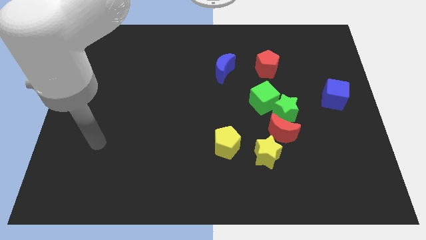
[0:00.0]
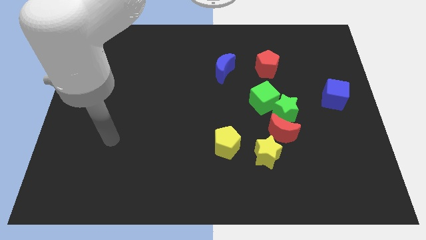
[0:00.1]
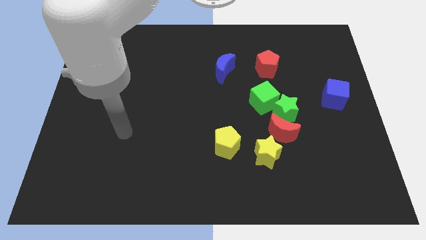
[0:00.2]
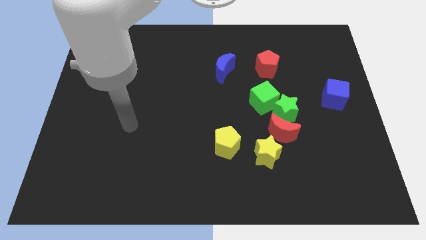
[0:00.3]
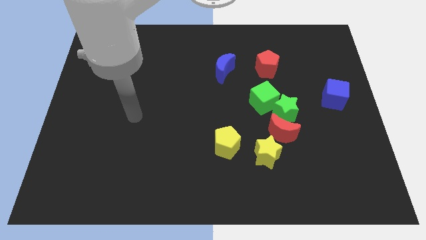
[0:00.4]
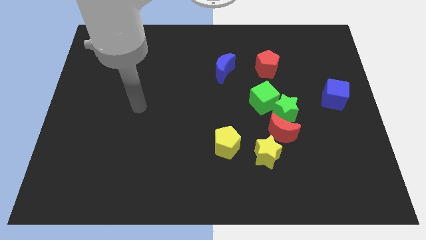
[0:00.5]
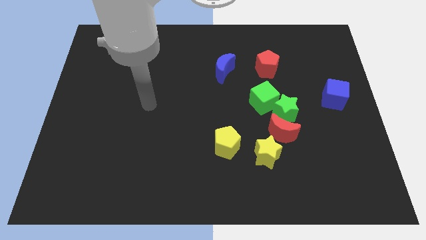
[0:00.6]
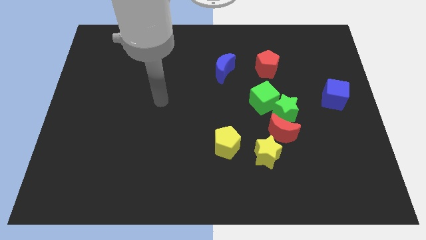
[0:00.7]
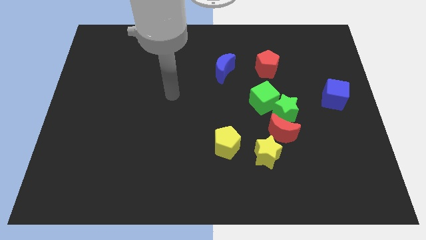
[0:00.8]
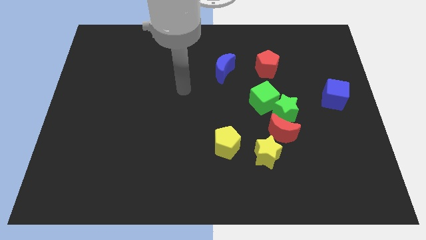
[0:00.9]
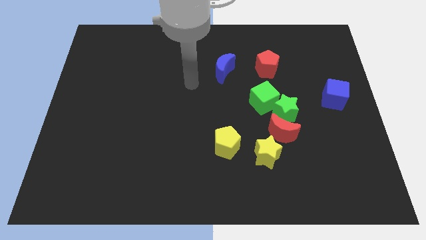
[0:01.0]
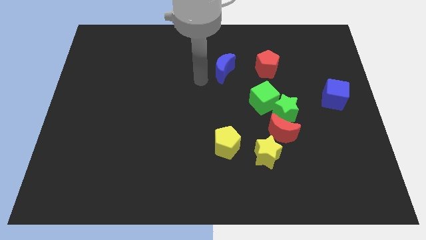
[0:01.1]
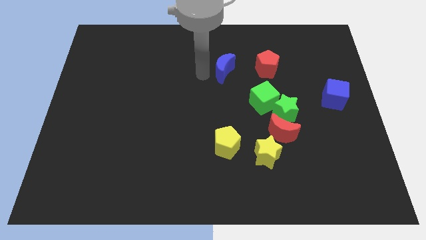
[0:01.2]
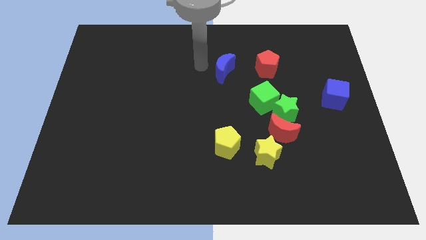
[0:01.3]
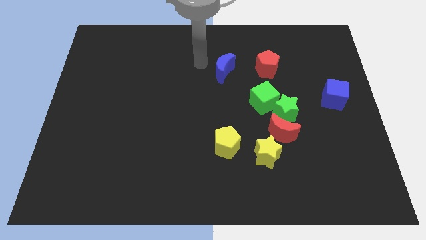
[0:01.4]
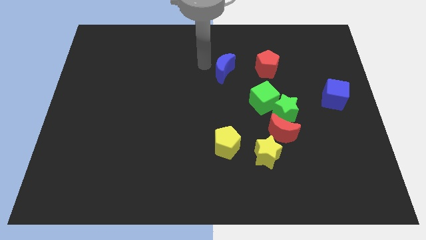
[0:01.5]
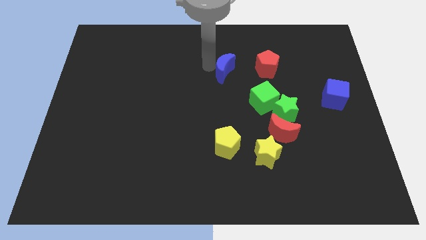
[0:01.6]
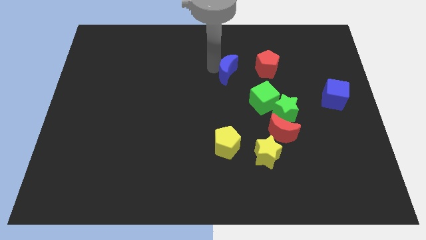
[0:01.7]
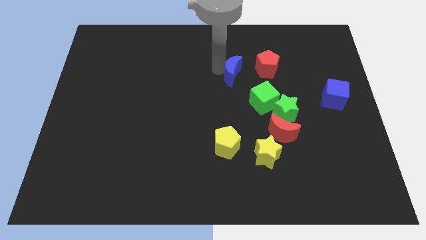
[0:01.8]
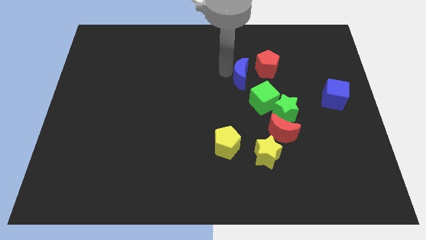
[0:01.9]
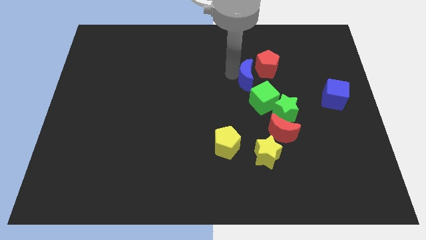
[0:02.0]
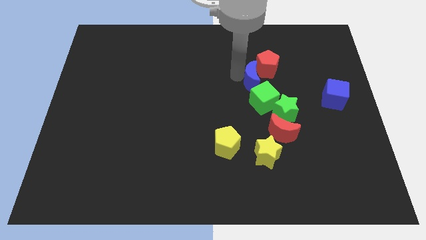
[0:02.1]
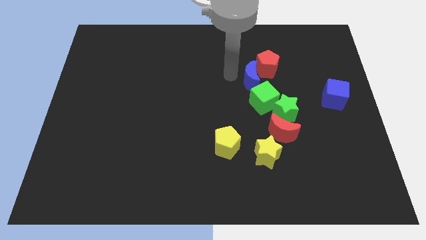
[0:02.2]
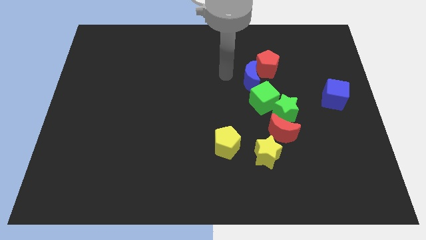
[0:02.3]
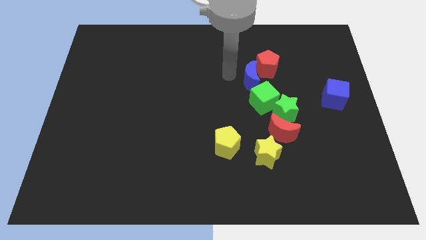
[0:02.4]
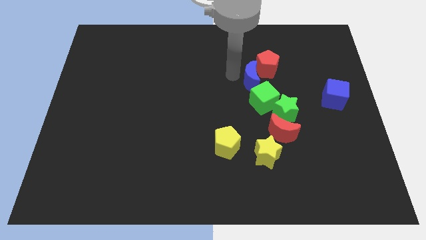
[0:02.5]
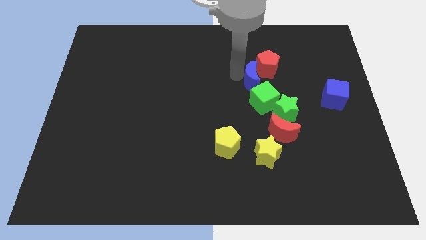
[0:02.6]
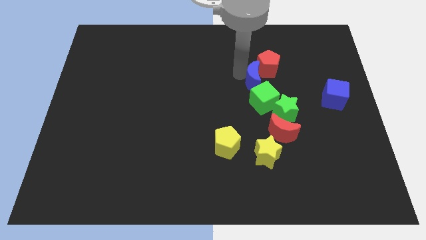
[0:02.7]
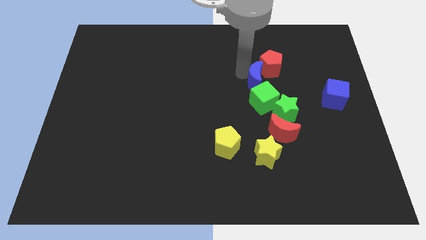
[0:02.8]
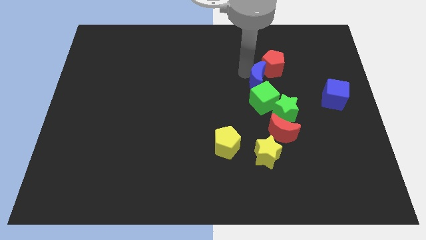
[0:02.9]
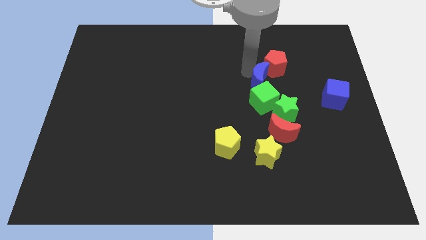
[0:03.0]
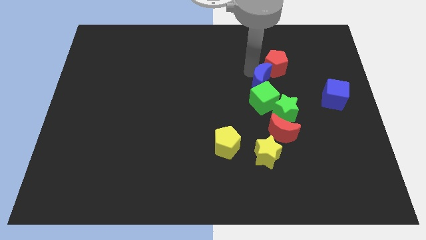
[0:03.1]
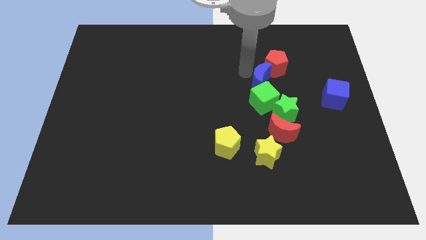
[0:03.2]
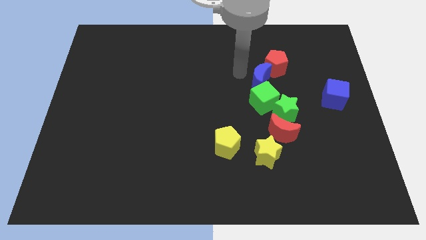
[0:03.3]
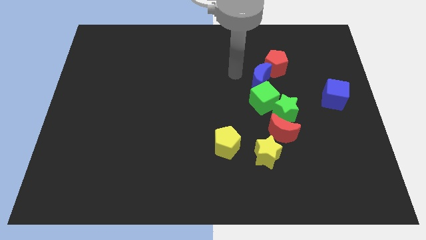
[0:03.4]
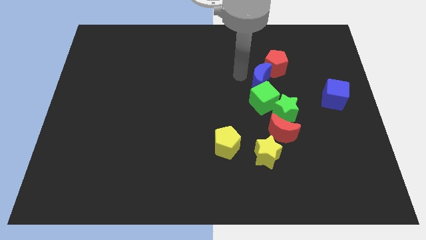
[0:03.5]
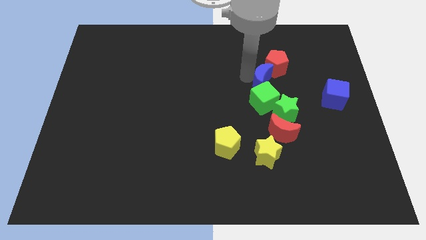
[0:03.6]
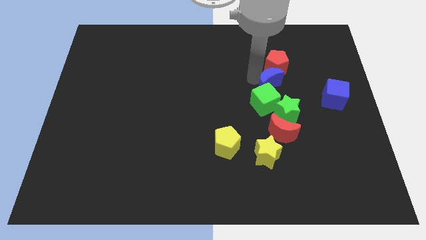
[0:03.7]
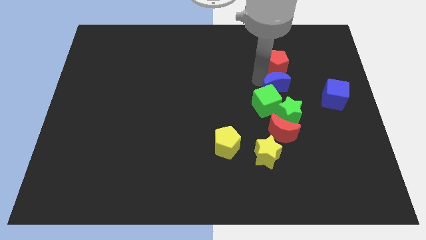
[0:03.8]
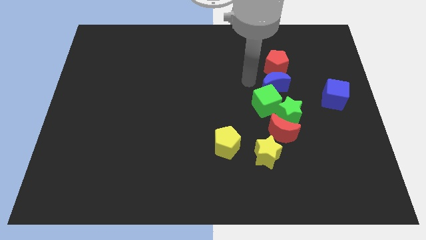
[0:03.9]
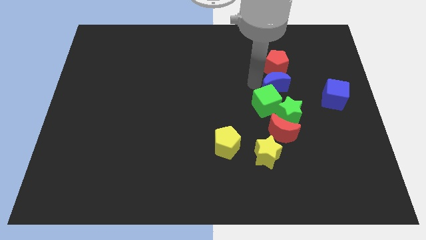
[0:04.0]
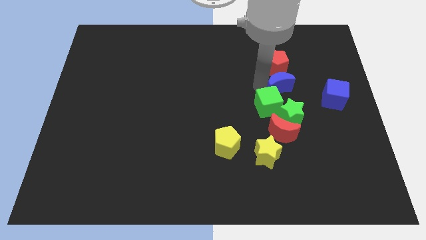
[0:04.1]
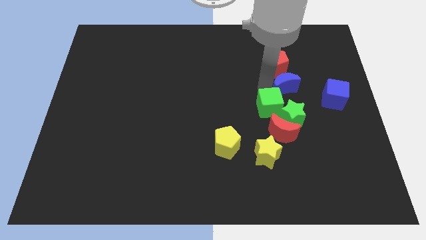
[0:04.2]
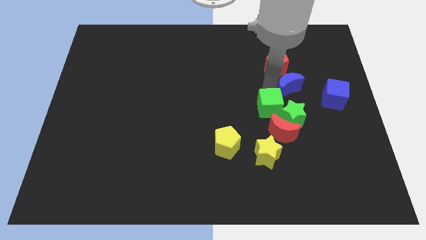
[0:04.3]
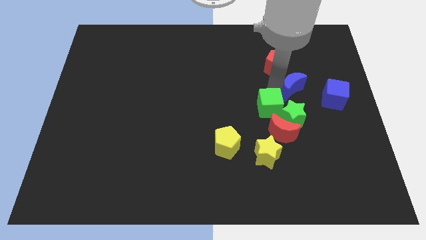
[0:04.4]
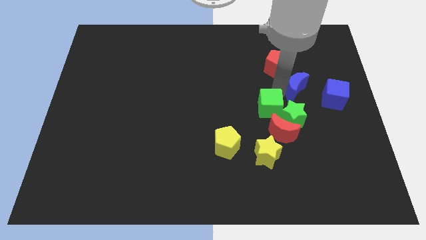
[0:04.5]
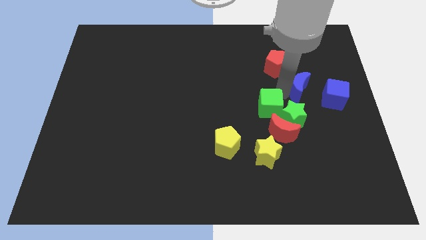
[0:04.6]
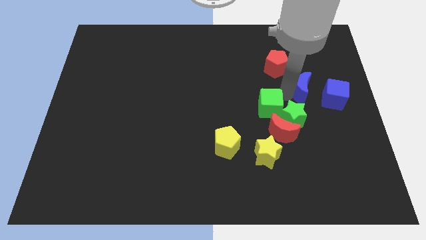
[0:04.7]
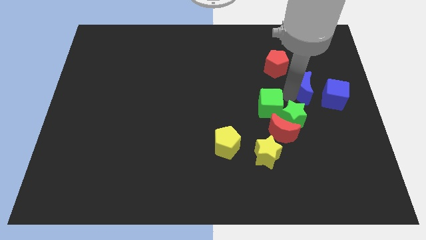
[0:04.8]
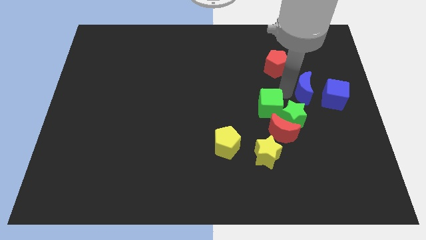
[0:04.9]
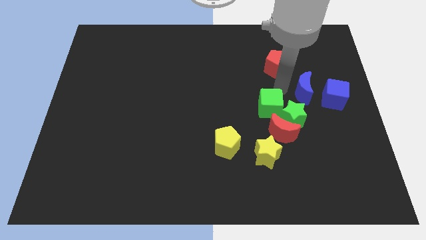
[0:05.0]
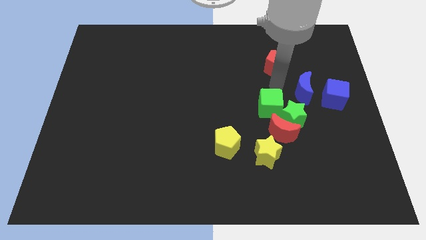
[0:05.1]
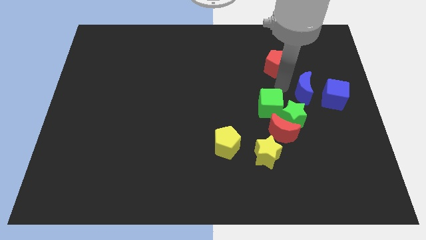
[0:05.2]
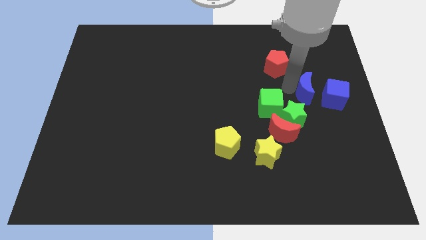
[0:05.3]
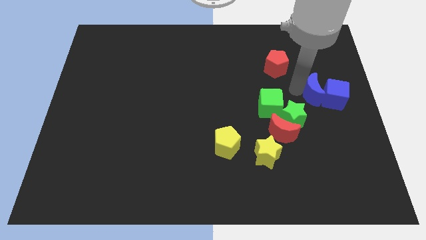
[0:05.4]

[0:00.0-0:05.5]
push the blue moon to the blue cube

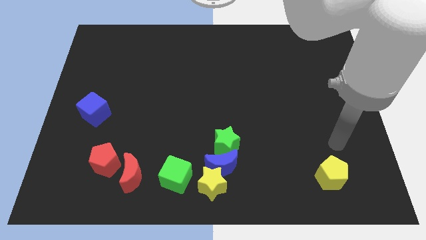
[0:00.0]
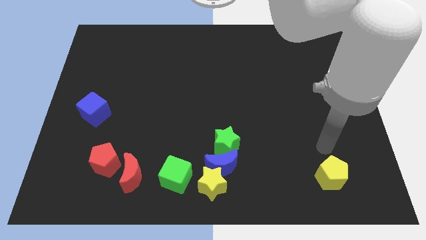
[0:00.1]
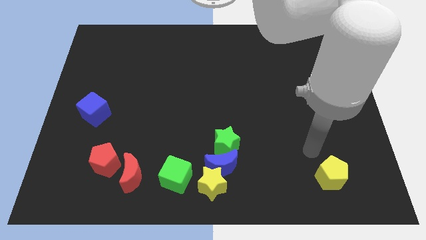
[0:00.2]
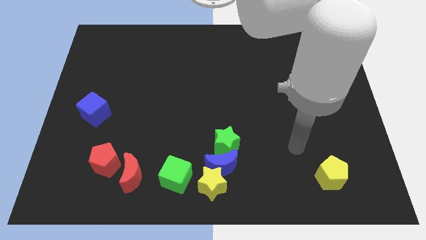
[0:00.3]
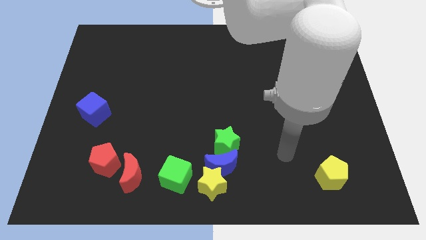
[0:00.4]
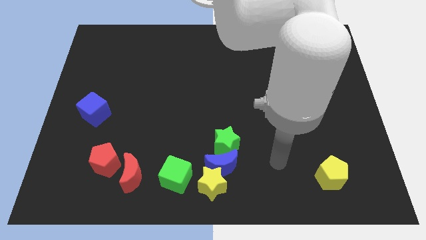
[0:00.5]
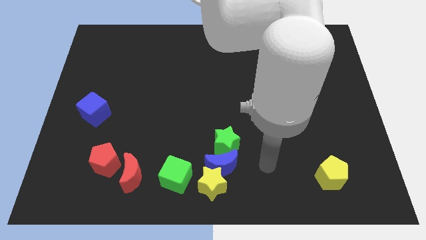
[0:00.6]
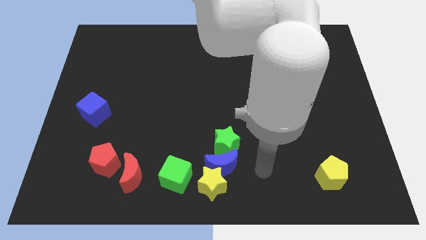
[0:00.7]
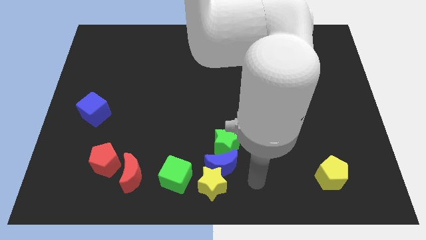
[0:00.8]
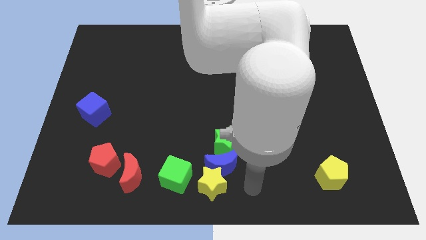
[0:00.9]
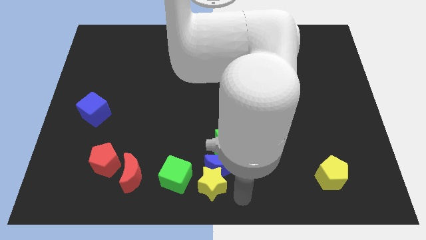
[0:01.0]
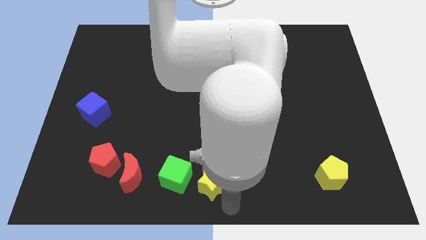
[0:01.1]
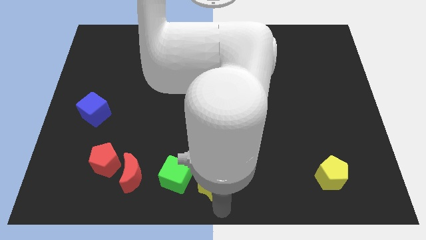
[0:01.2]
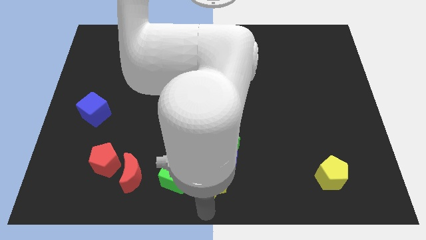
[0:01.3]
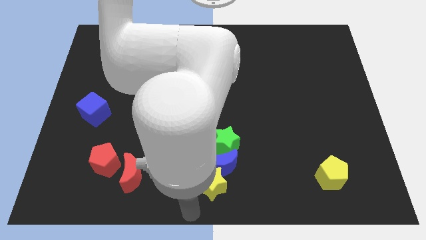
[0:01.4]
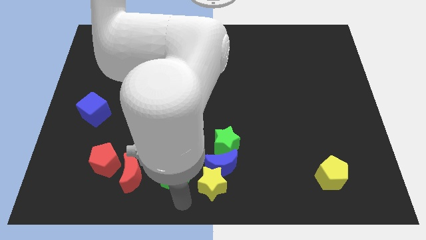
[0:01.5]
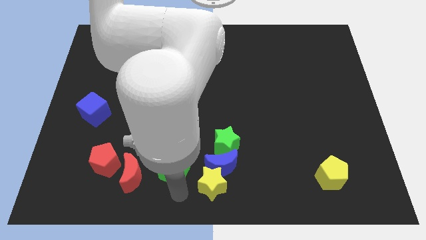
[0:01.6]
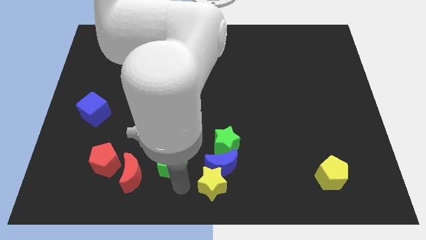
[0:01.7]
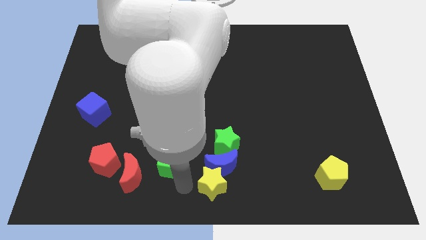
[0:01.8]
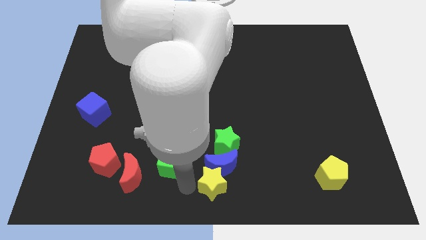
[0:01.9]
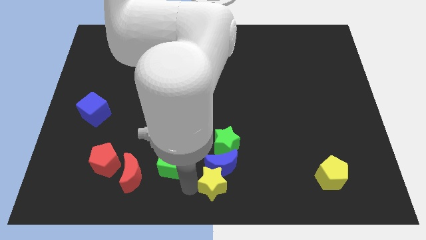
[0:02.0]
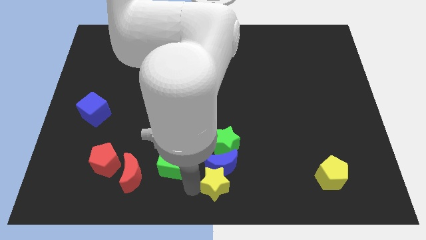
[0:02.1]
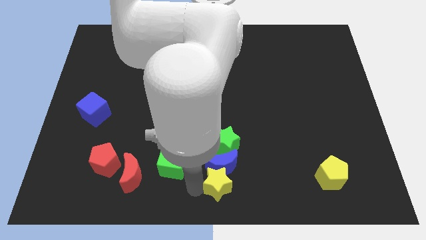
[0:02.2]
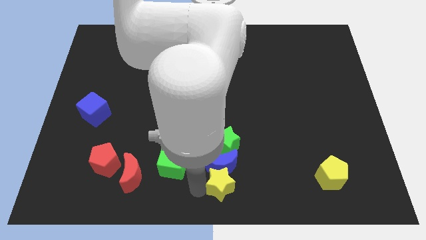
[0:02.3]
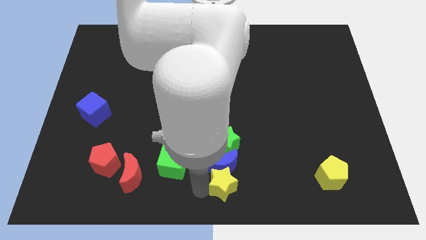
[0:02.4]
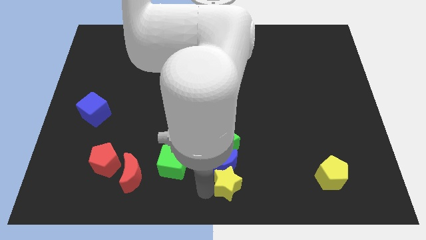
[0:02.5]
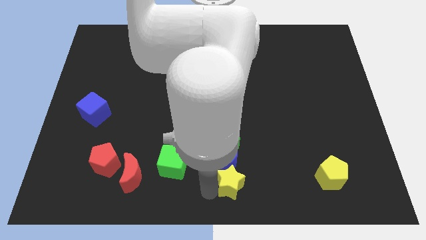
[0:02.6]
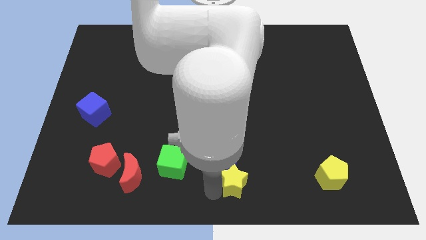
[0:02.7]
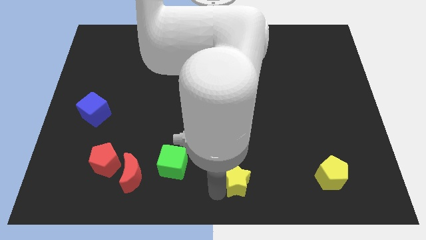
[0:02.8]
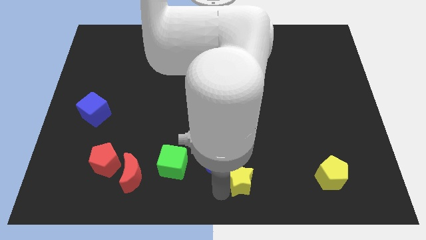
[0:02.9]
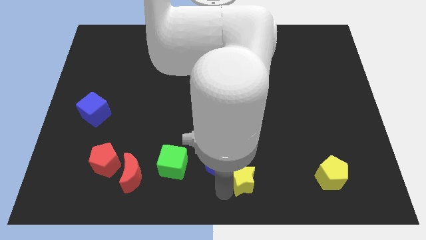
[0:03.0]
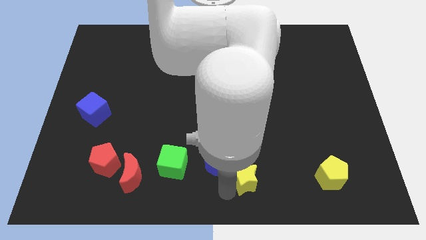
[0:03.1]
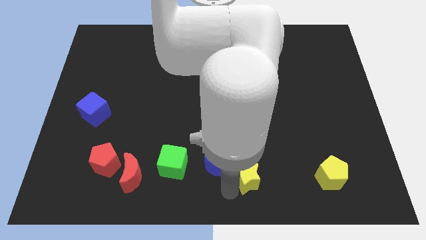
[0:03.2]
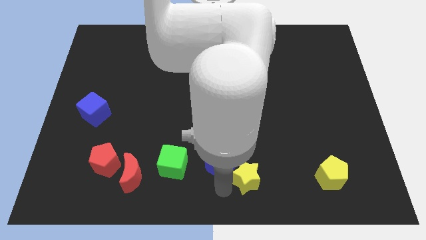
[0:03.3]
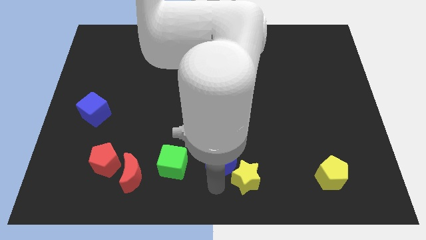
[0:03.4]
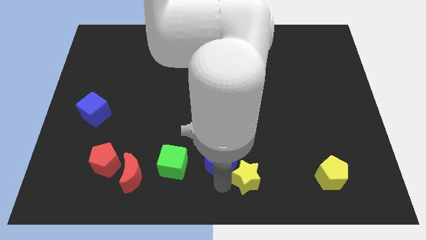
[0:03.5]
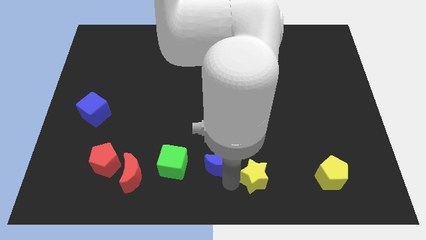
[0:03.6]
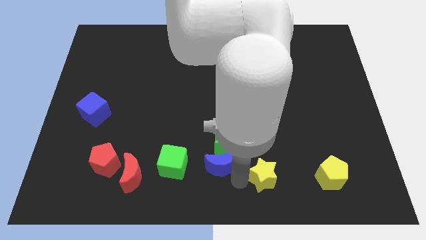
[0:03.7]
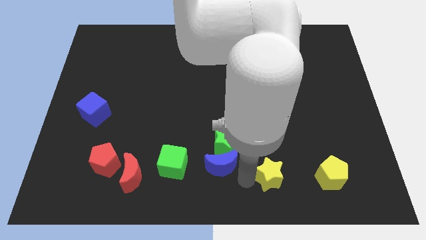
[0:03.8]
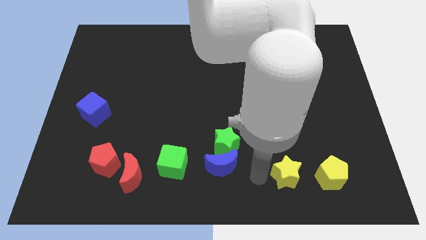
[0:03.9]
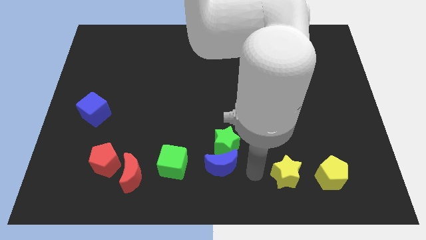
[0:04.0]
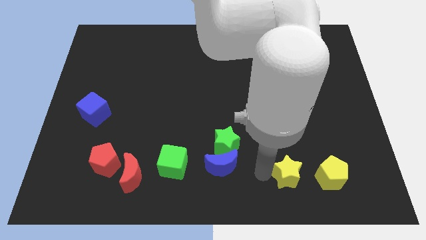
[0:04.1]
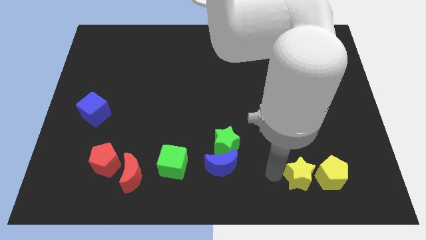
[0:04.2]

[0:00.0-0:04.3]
slide the yellow star towards the yellow pentagon
